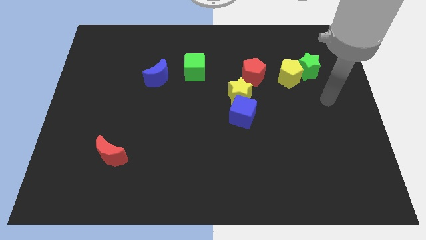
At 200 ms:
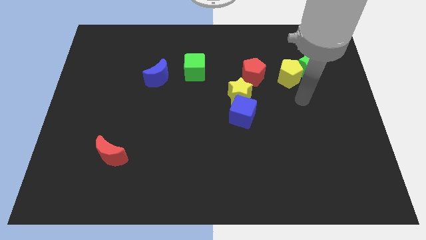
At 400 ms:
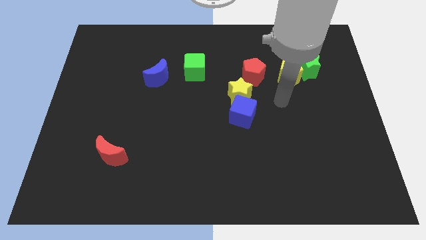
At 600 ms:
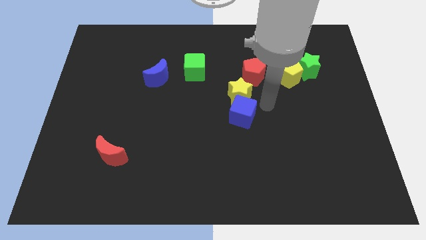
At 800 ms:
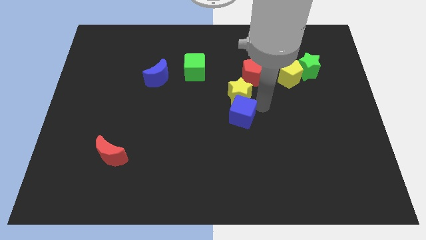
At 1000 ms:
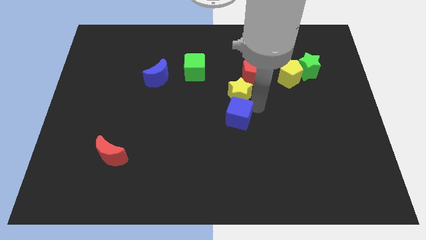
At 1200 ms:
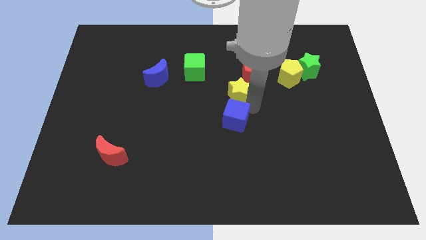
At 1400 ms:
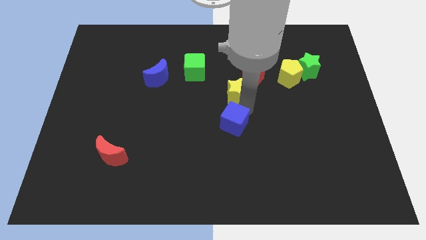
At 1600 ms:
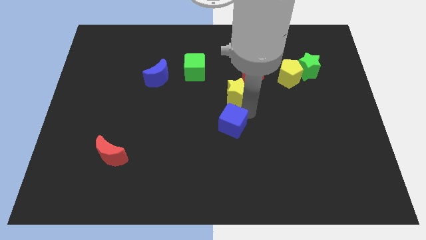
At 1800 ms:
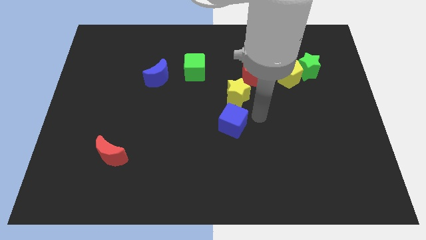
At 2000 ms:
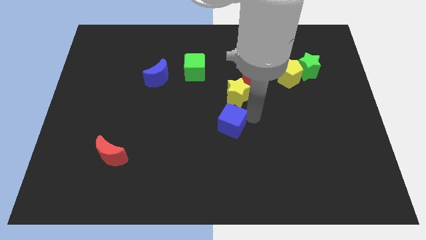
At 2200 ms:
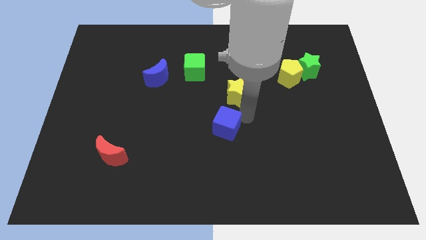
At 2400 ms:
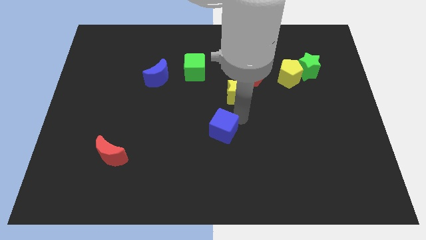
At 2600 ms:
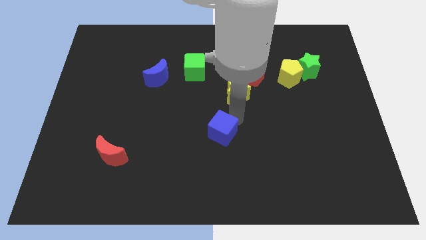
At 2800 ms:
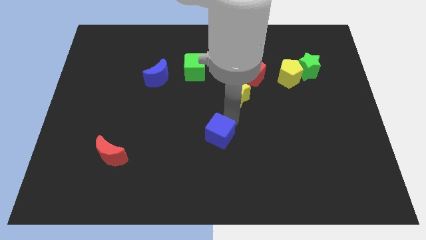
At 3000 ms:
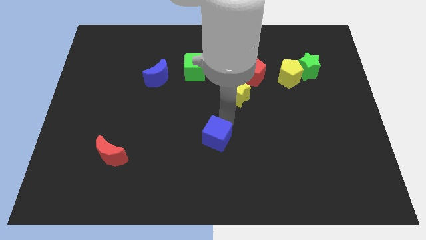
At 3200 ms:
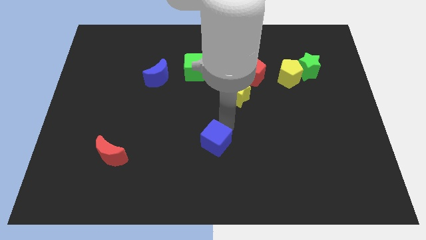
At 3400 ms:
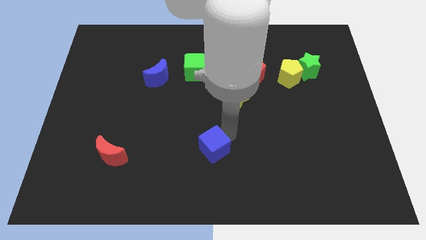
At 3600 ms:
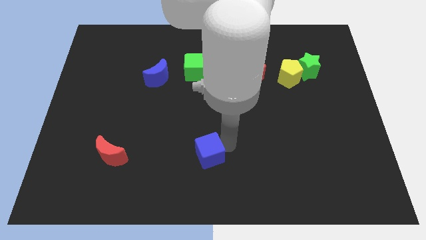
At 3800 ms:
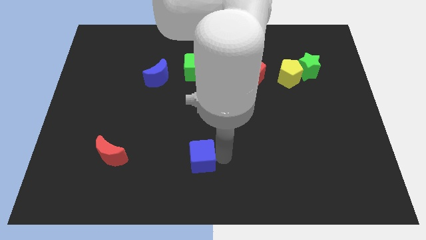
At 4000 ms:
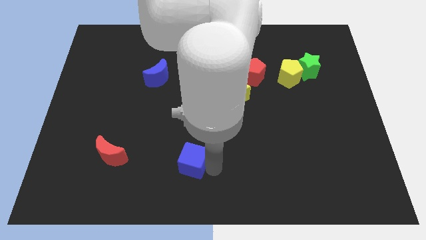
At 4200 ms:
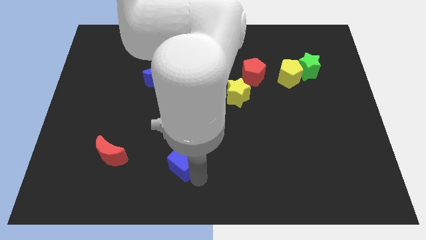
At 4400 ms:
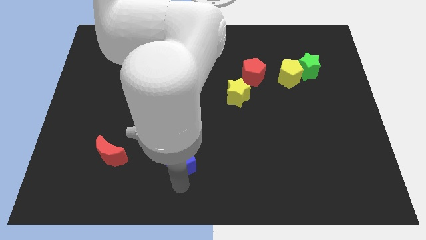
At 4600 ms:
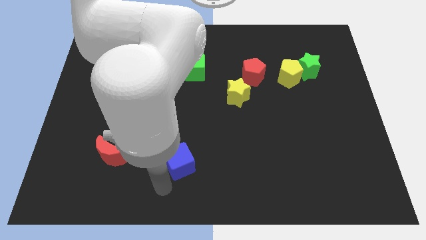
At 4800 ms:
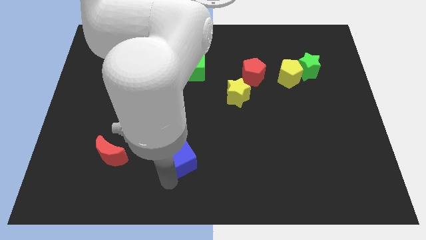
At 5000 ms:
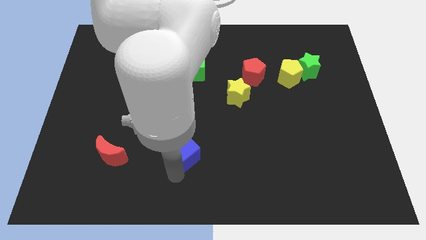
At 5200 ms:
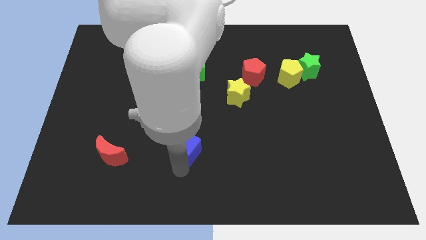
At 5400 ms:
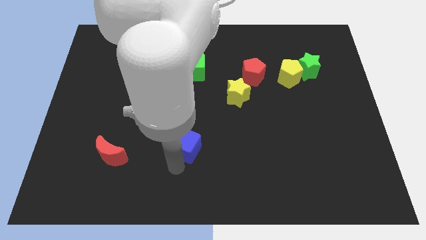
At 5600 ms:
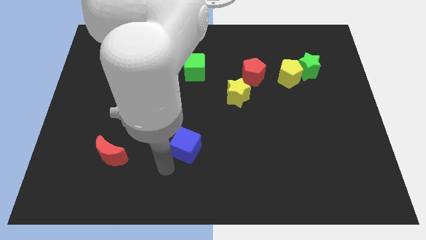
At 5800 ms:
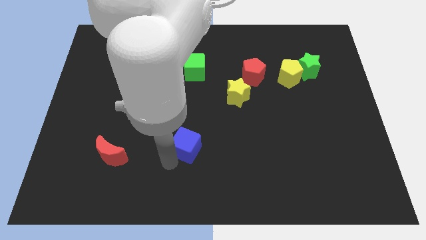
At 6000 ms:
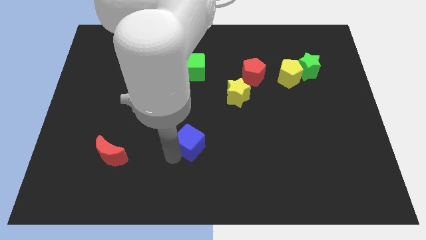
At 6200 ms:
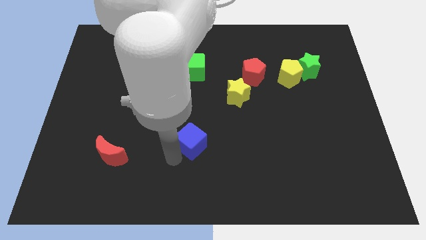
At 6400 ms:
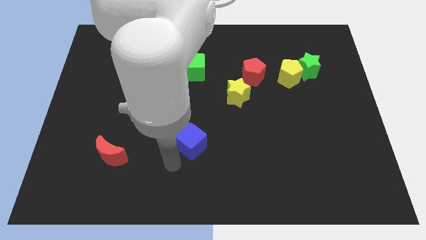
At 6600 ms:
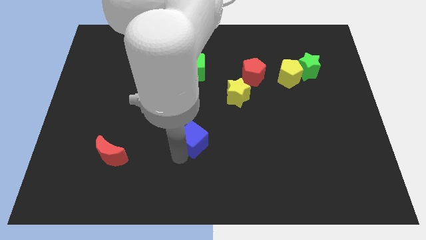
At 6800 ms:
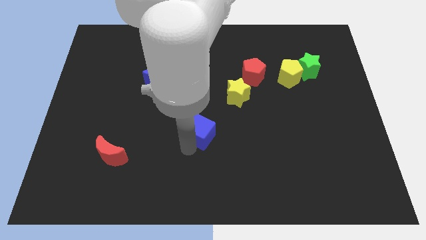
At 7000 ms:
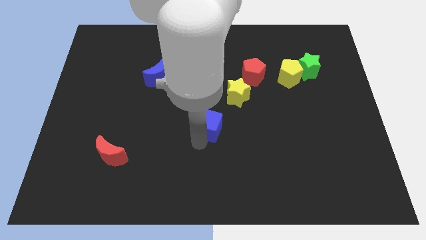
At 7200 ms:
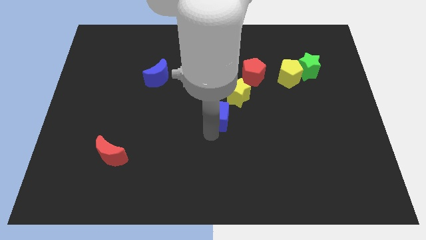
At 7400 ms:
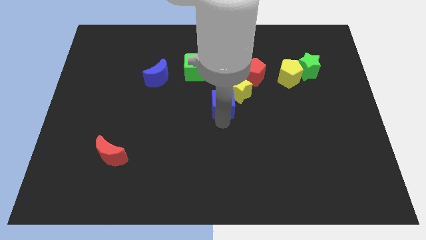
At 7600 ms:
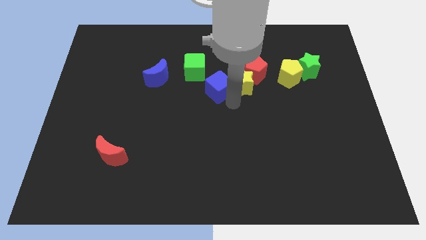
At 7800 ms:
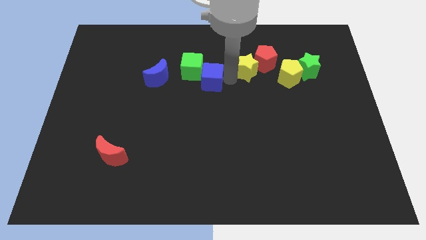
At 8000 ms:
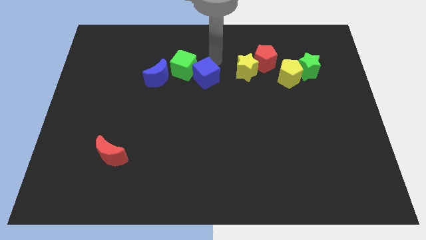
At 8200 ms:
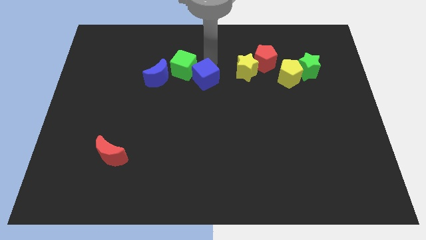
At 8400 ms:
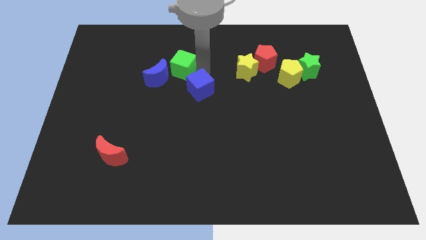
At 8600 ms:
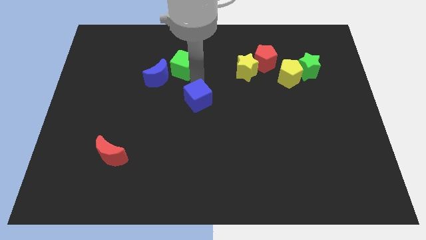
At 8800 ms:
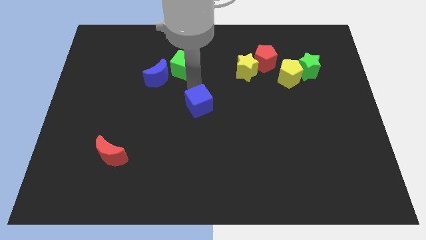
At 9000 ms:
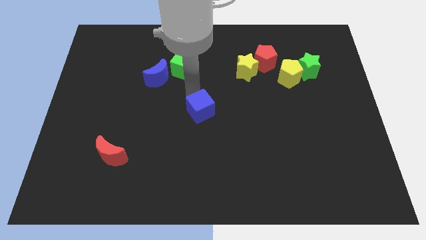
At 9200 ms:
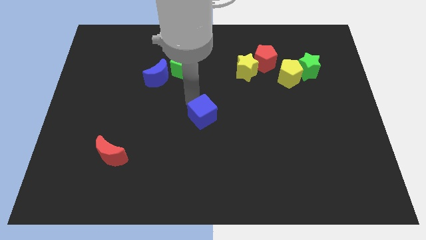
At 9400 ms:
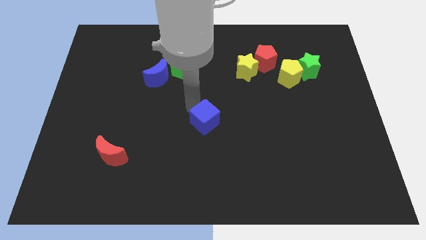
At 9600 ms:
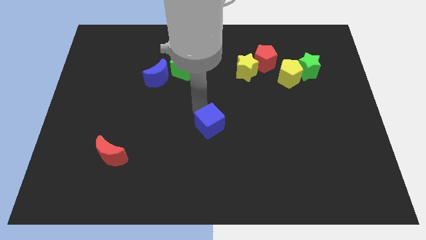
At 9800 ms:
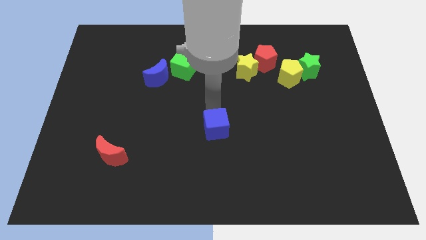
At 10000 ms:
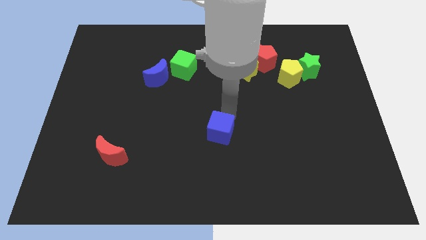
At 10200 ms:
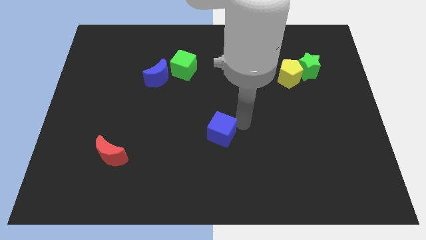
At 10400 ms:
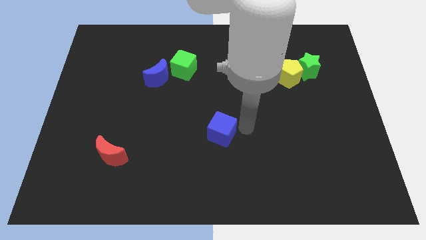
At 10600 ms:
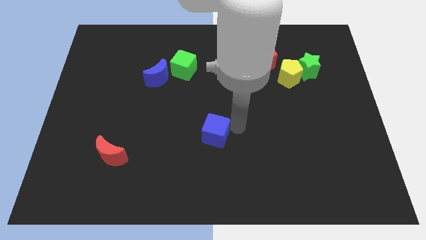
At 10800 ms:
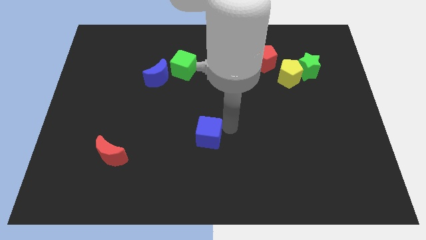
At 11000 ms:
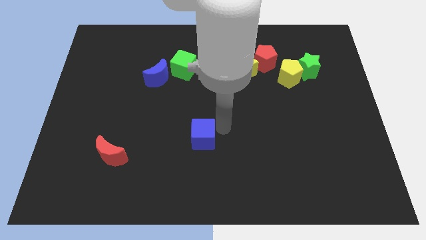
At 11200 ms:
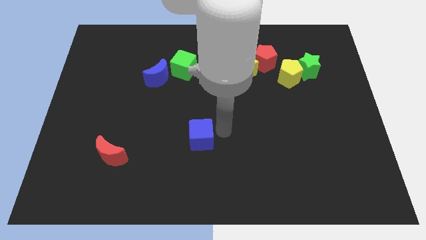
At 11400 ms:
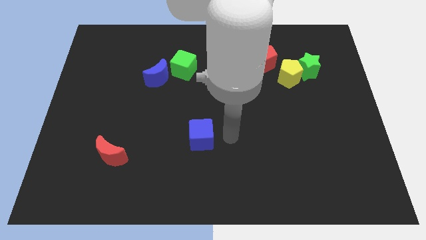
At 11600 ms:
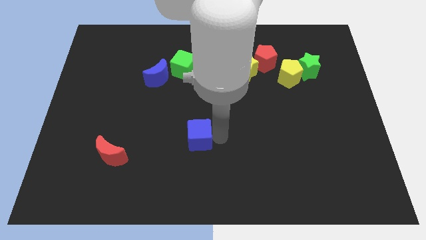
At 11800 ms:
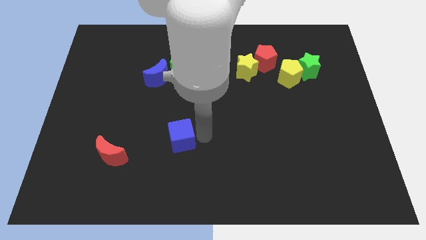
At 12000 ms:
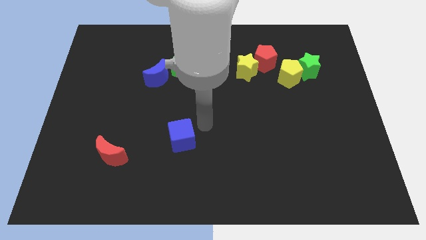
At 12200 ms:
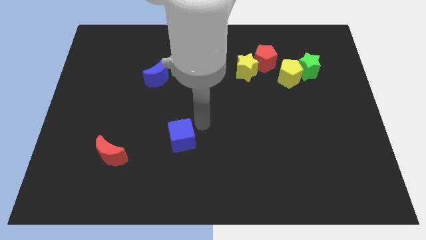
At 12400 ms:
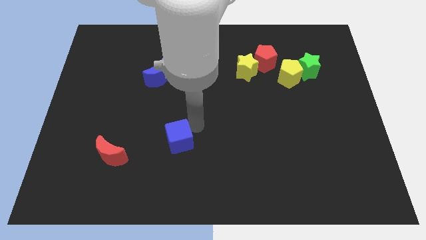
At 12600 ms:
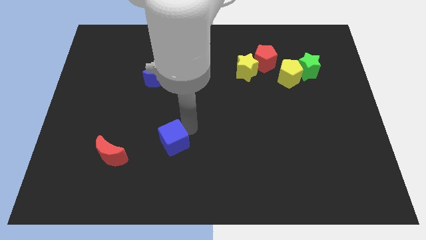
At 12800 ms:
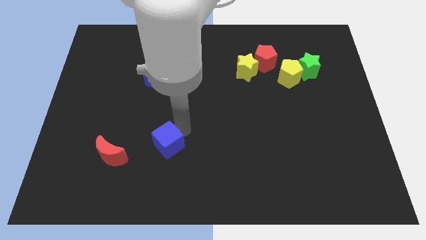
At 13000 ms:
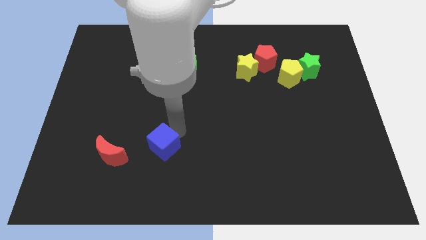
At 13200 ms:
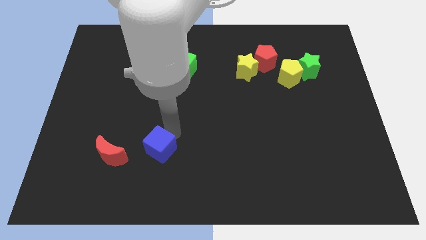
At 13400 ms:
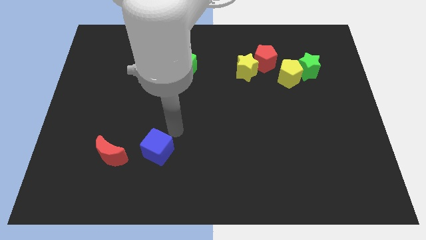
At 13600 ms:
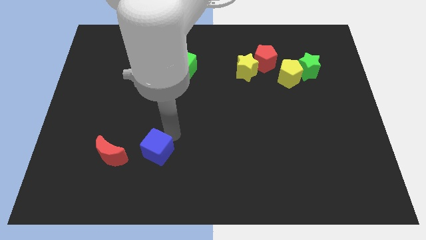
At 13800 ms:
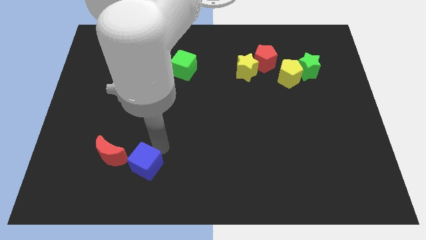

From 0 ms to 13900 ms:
push the blue cube diagonally down and to the right of the red moon
